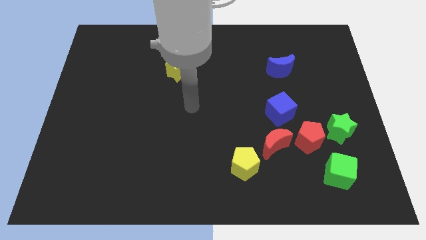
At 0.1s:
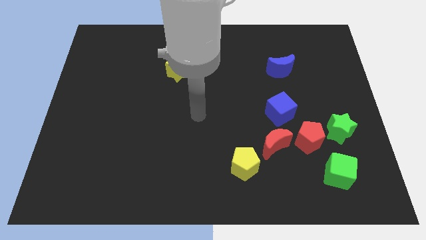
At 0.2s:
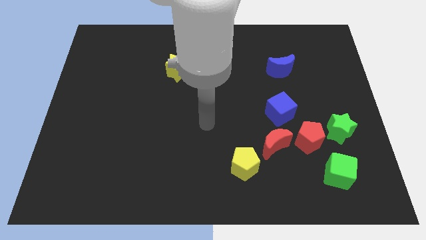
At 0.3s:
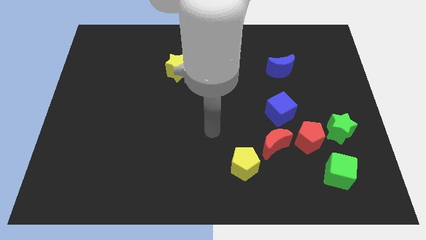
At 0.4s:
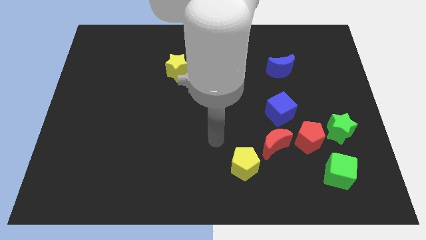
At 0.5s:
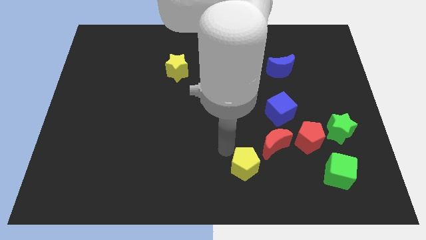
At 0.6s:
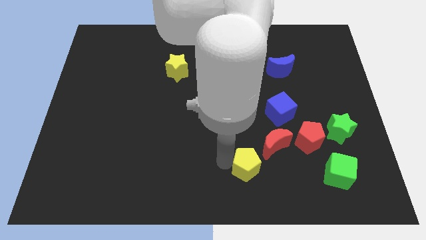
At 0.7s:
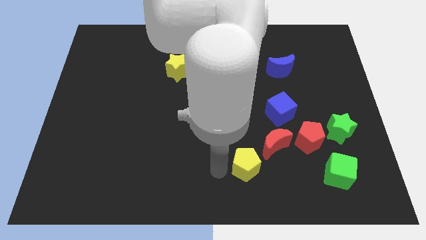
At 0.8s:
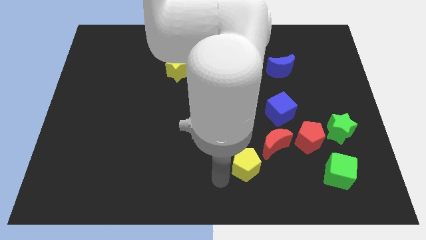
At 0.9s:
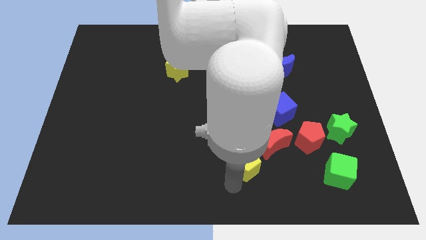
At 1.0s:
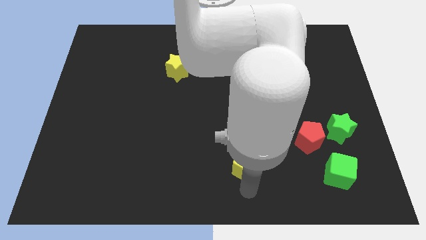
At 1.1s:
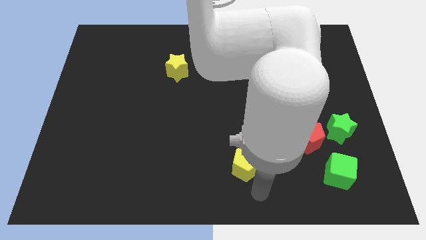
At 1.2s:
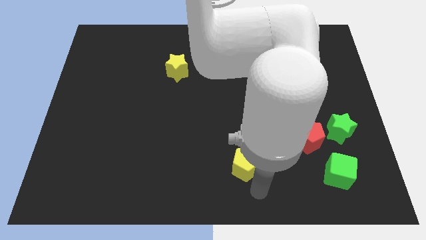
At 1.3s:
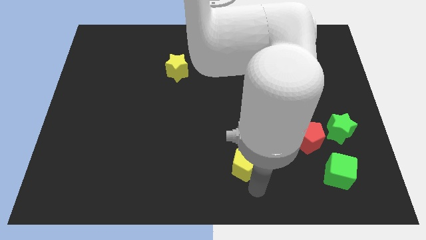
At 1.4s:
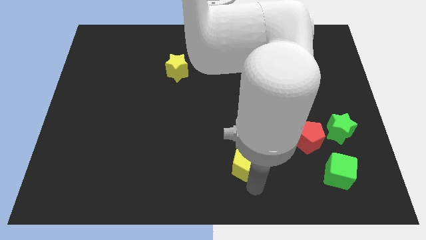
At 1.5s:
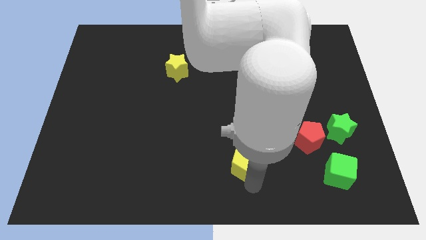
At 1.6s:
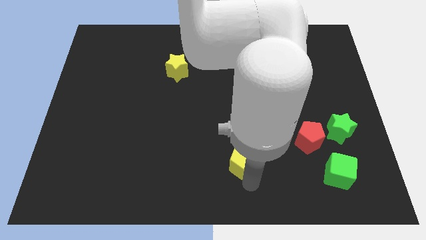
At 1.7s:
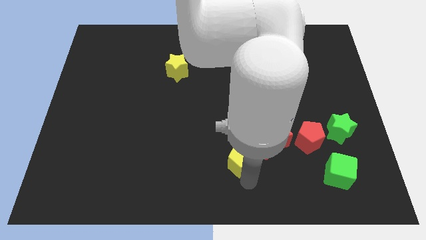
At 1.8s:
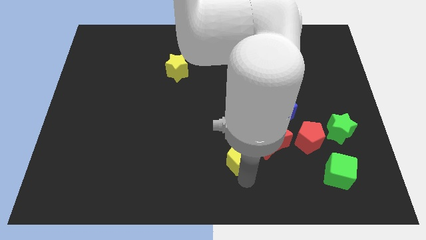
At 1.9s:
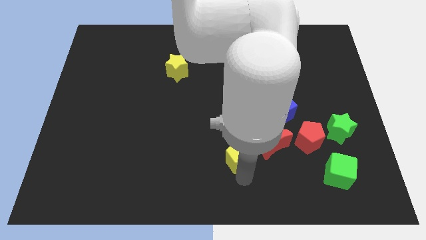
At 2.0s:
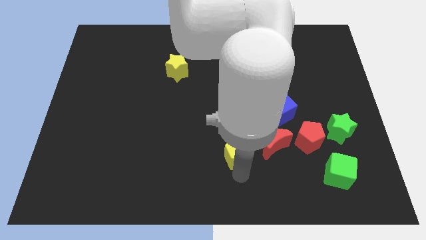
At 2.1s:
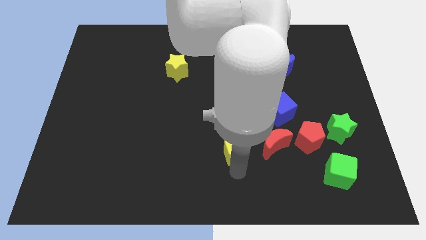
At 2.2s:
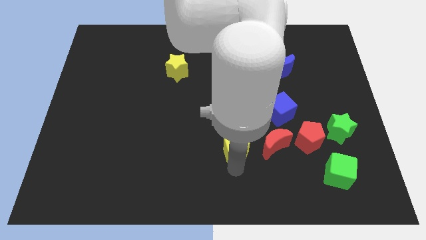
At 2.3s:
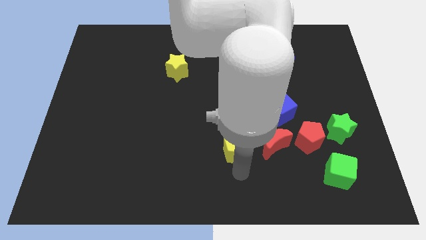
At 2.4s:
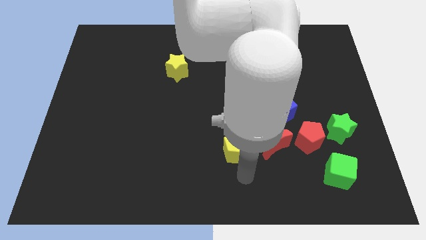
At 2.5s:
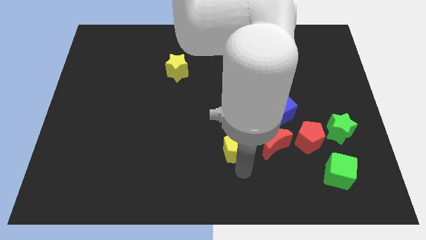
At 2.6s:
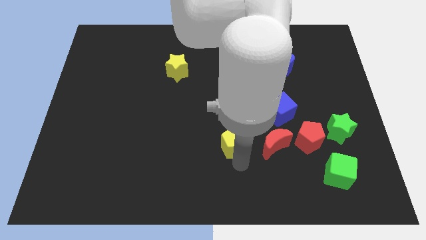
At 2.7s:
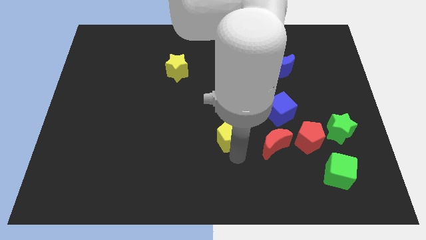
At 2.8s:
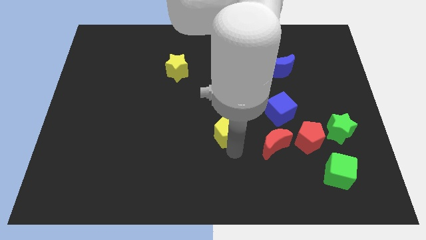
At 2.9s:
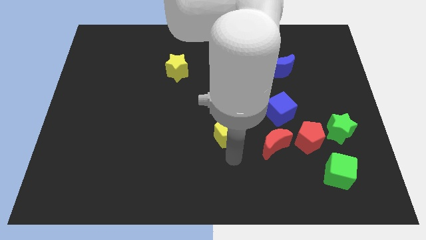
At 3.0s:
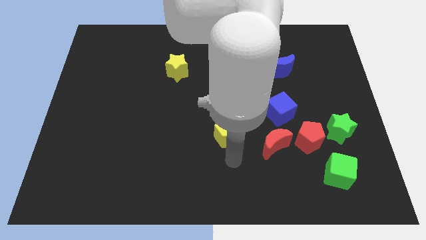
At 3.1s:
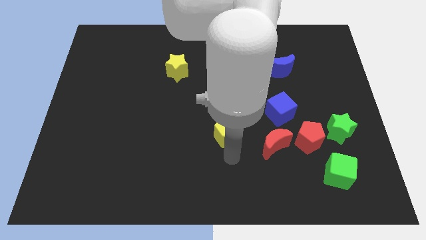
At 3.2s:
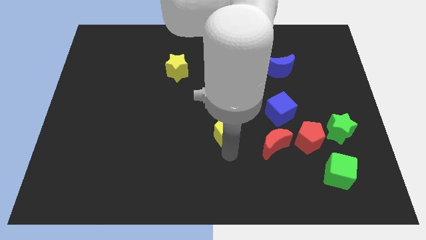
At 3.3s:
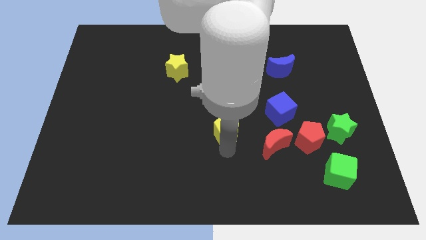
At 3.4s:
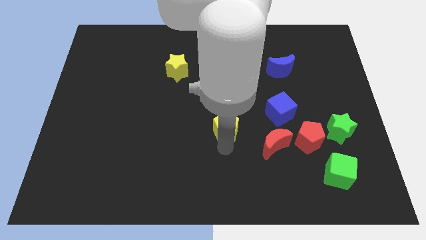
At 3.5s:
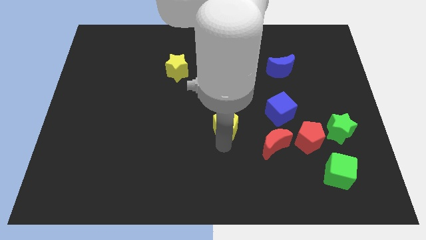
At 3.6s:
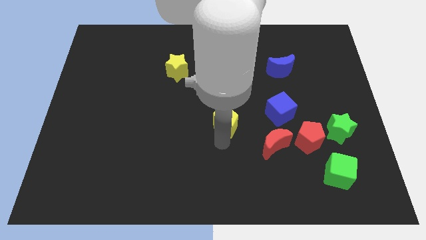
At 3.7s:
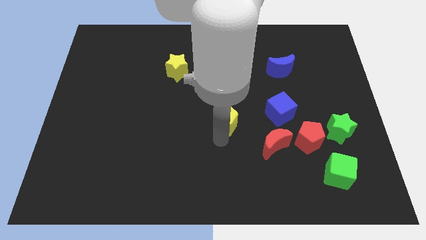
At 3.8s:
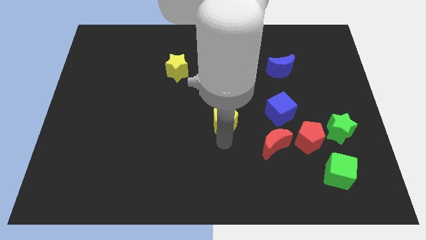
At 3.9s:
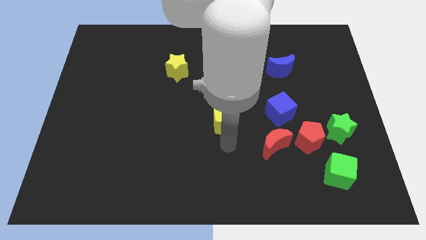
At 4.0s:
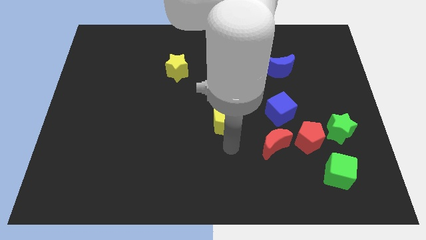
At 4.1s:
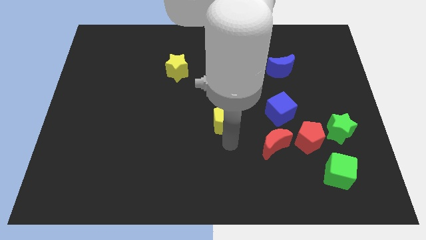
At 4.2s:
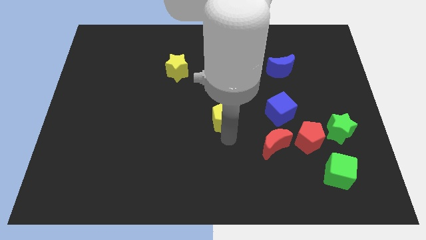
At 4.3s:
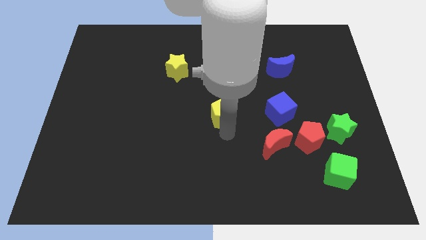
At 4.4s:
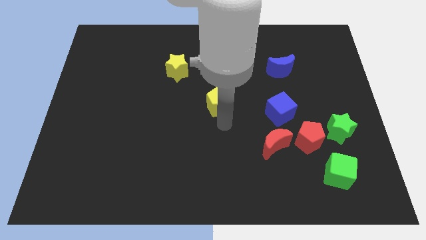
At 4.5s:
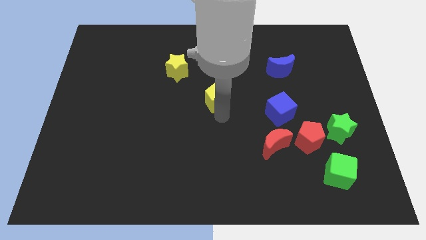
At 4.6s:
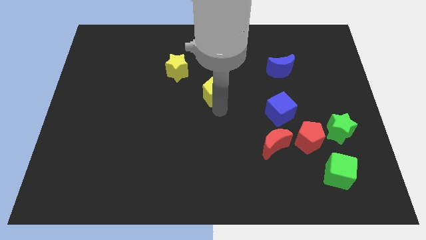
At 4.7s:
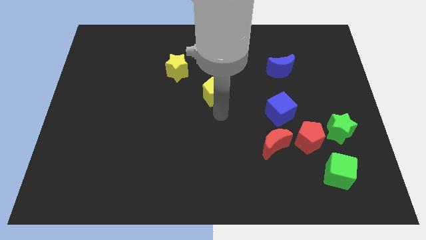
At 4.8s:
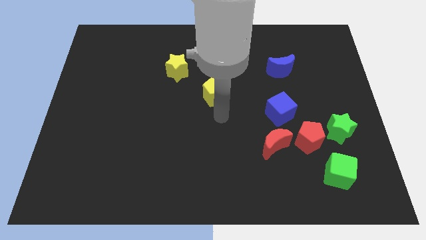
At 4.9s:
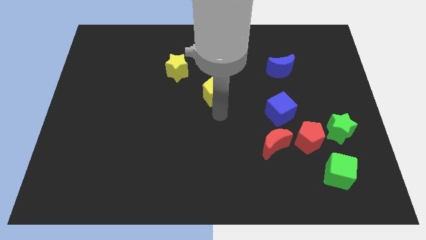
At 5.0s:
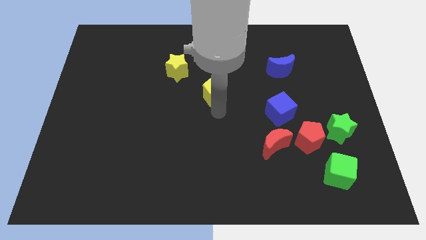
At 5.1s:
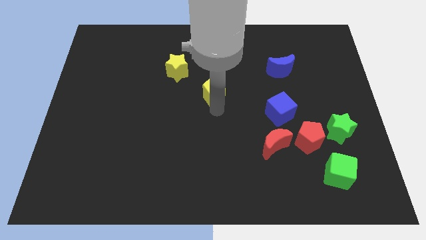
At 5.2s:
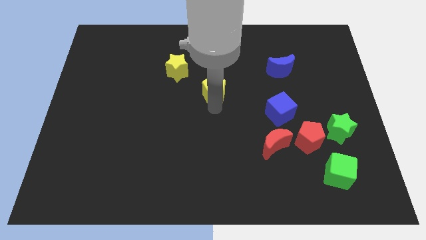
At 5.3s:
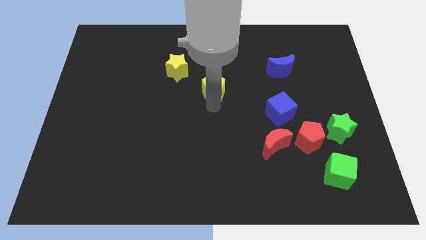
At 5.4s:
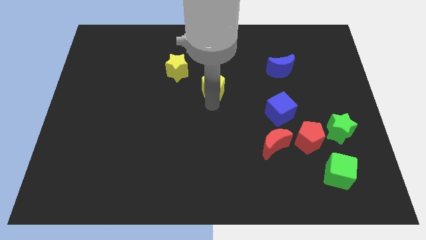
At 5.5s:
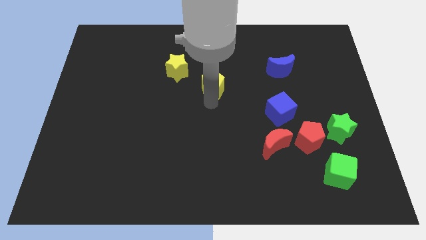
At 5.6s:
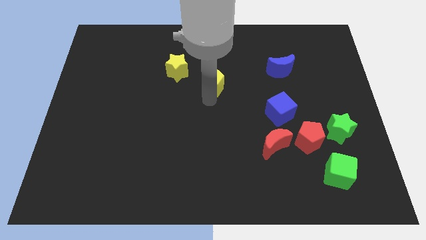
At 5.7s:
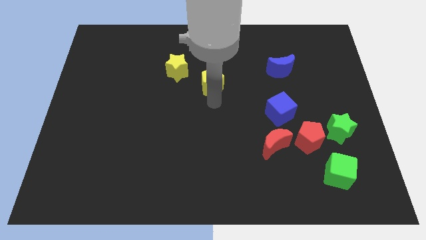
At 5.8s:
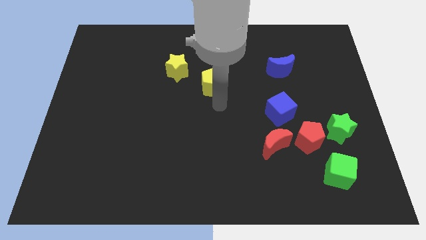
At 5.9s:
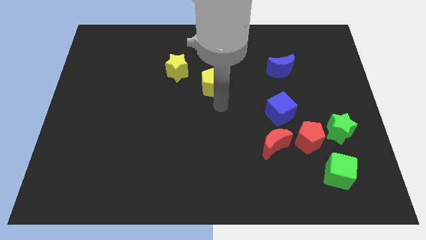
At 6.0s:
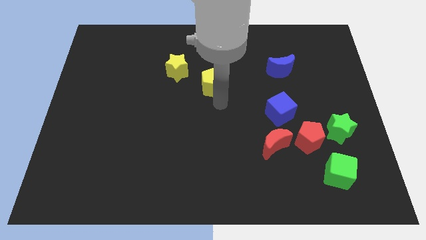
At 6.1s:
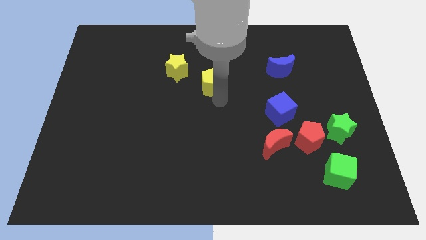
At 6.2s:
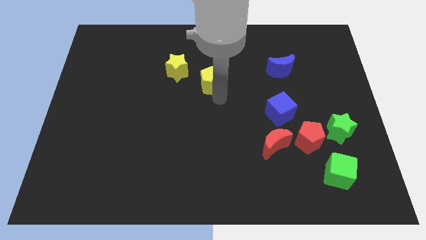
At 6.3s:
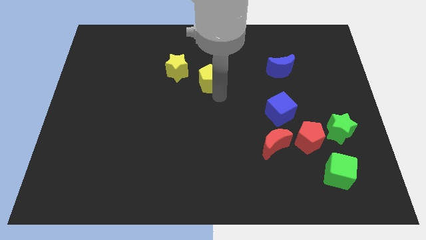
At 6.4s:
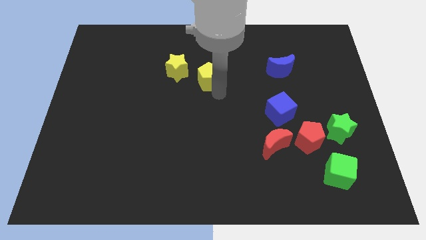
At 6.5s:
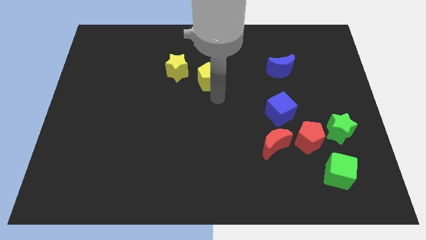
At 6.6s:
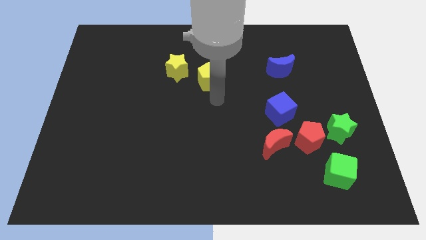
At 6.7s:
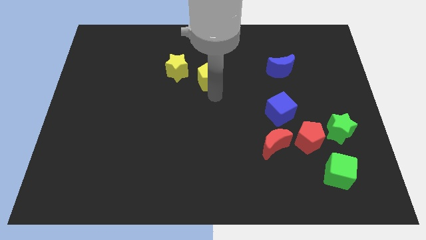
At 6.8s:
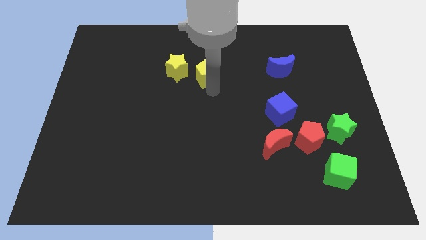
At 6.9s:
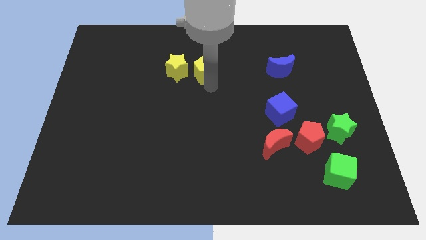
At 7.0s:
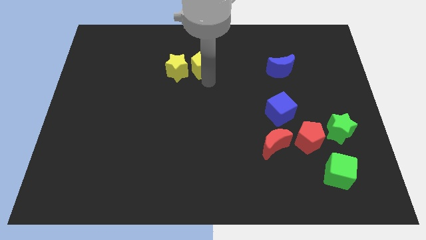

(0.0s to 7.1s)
put the yellow pentagon to the top right of the yellow star
